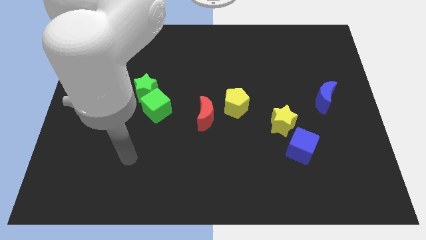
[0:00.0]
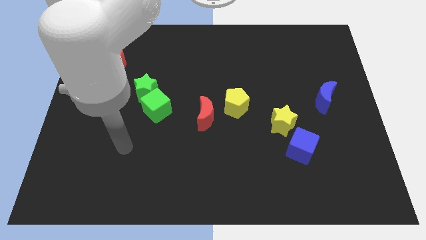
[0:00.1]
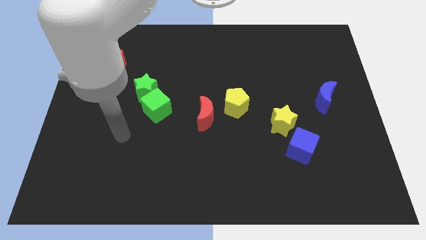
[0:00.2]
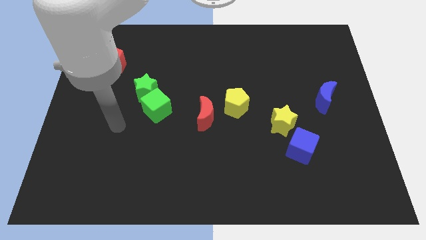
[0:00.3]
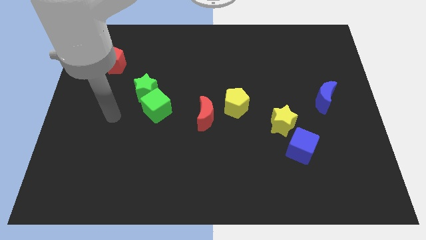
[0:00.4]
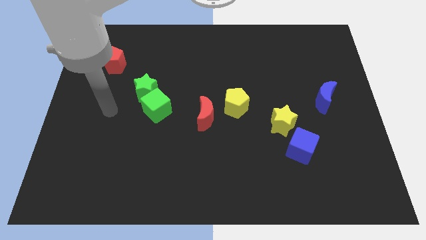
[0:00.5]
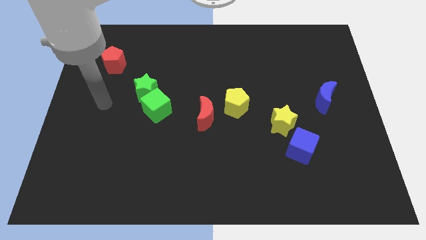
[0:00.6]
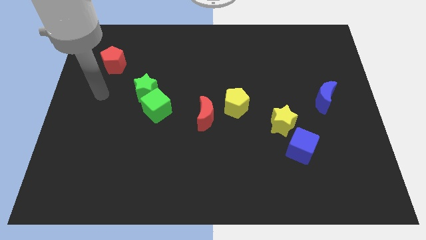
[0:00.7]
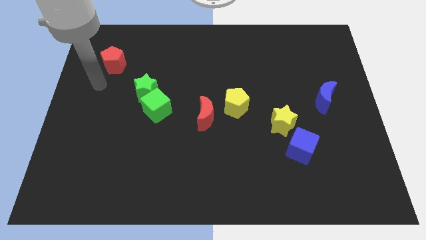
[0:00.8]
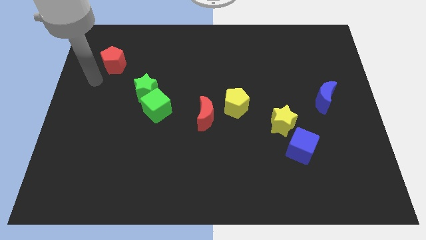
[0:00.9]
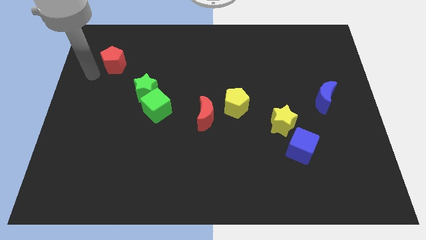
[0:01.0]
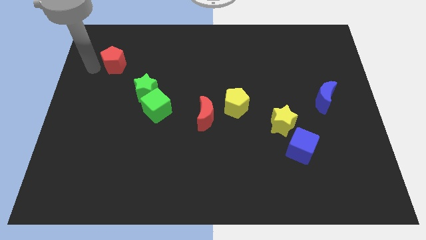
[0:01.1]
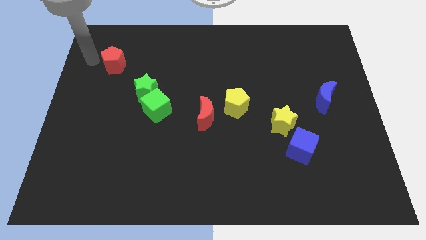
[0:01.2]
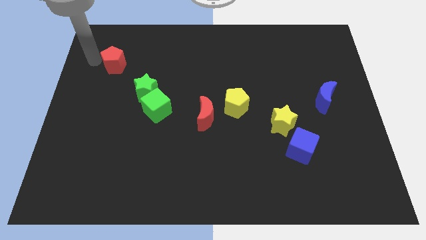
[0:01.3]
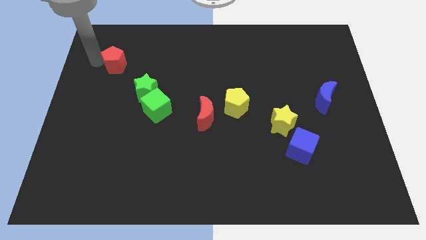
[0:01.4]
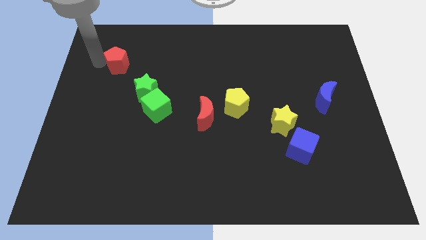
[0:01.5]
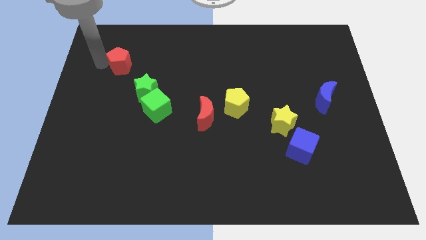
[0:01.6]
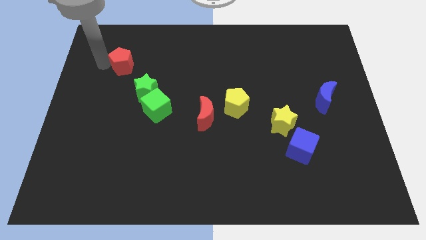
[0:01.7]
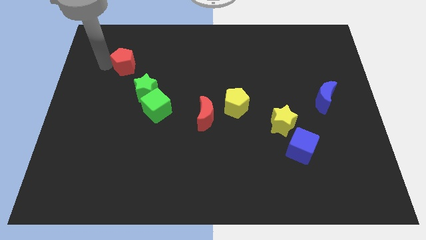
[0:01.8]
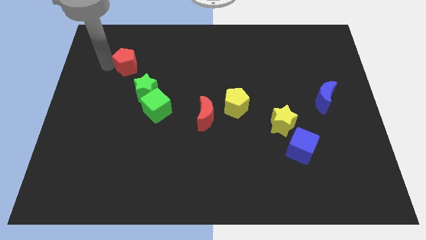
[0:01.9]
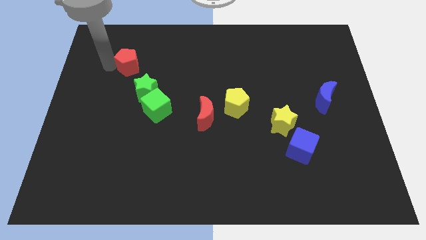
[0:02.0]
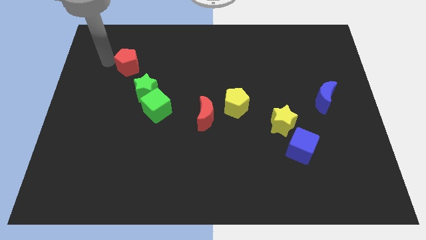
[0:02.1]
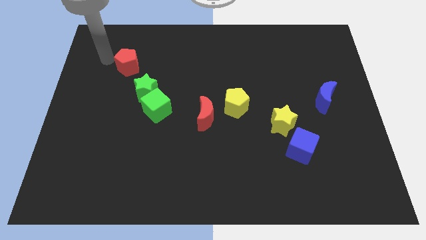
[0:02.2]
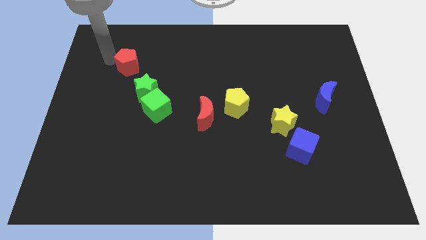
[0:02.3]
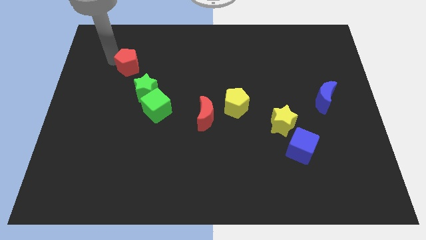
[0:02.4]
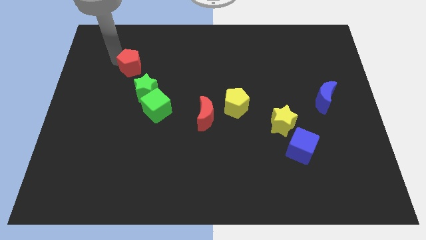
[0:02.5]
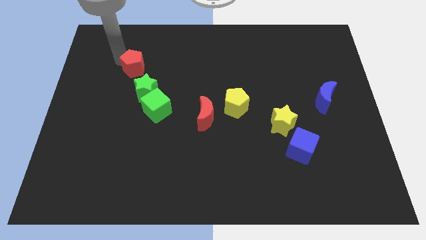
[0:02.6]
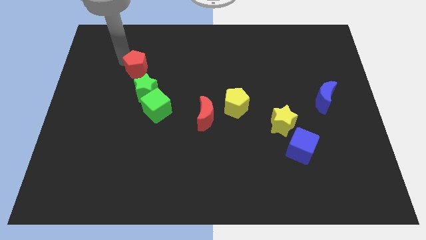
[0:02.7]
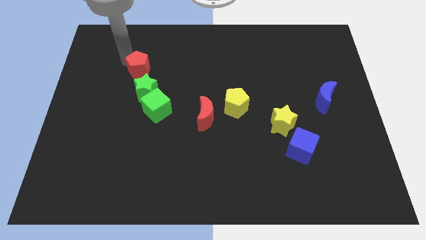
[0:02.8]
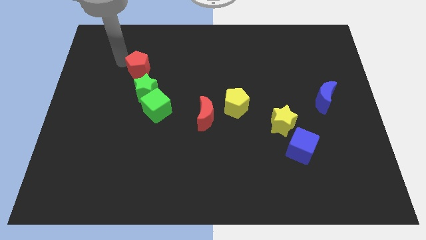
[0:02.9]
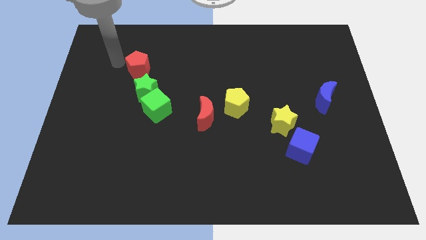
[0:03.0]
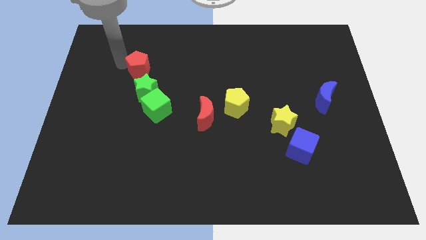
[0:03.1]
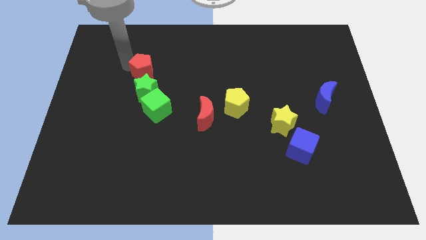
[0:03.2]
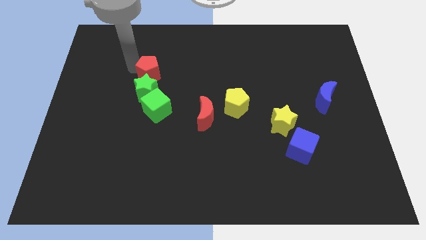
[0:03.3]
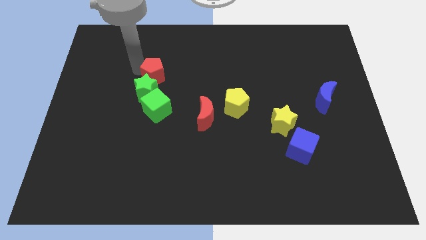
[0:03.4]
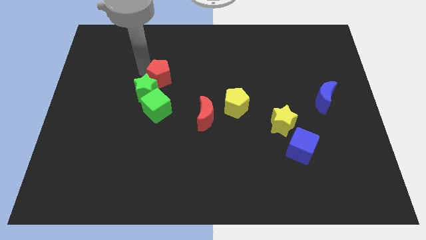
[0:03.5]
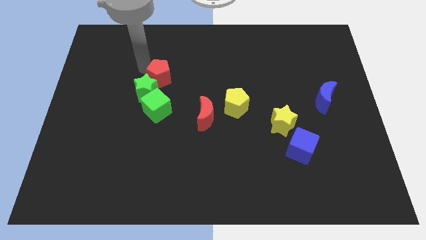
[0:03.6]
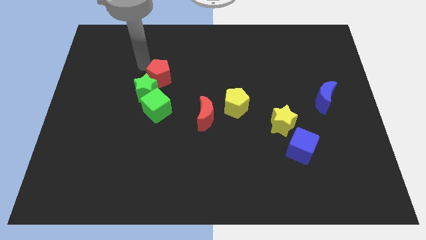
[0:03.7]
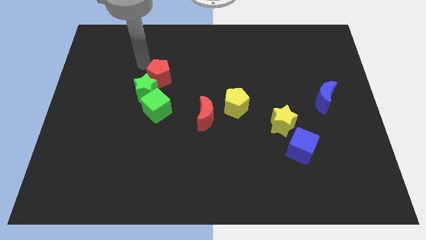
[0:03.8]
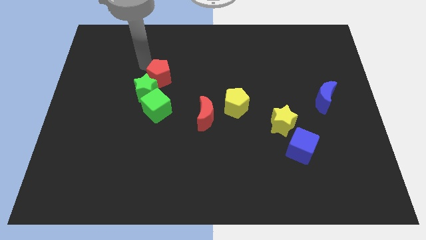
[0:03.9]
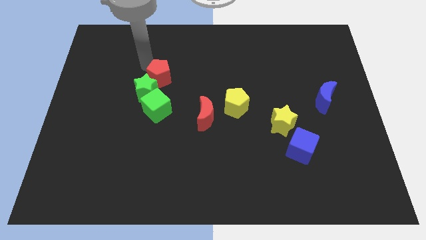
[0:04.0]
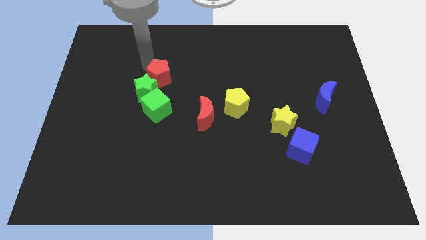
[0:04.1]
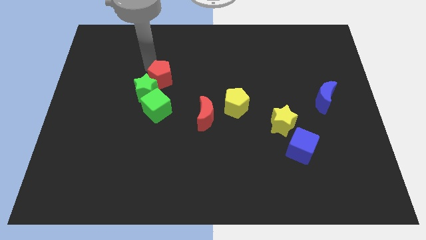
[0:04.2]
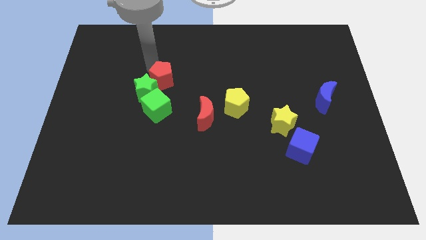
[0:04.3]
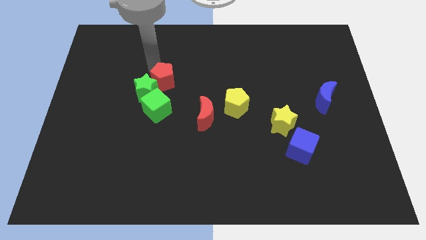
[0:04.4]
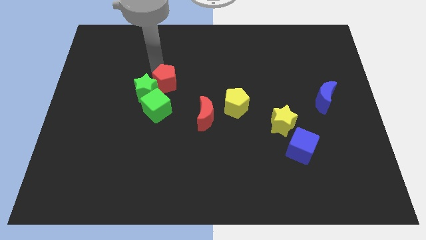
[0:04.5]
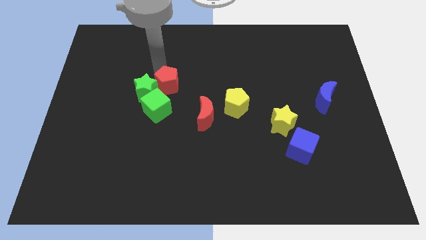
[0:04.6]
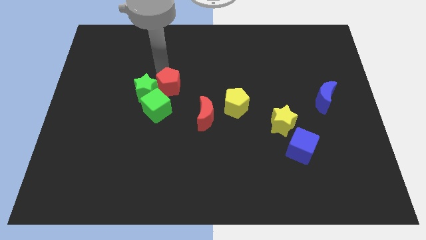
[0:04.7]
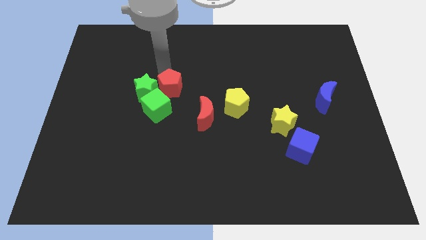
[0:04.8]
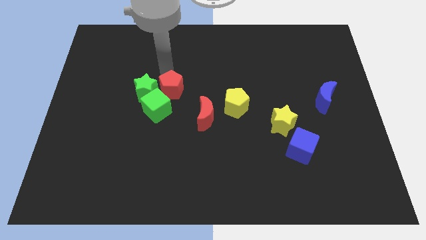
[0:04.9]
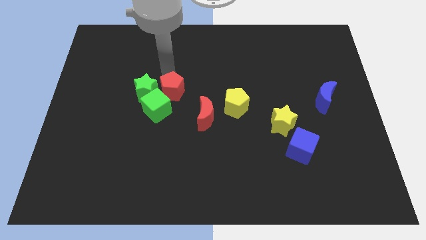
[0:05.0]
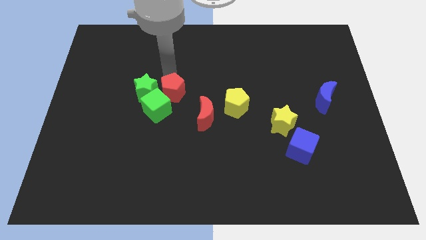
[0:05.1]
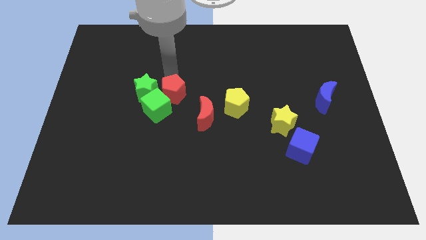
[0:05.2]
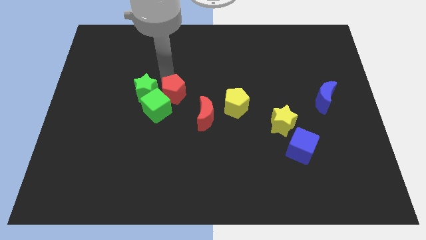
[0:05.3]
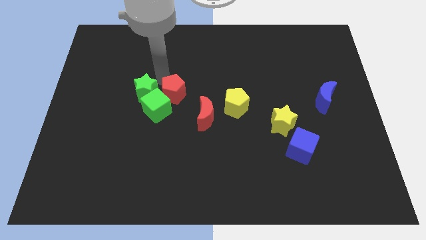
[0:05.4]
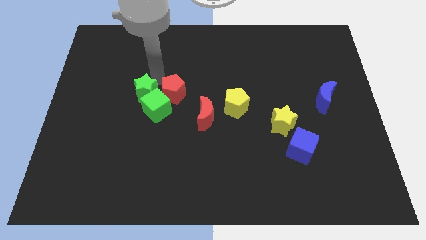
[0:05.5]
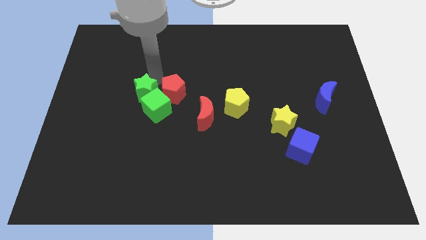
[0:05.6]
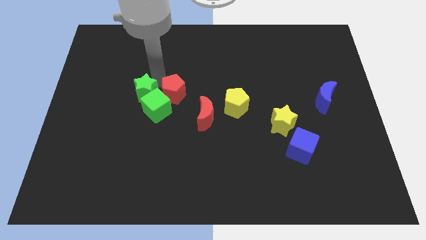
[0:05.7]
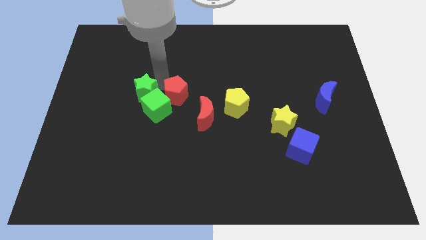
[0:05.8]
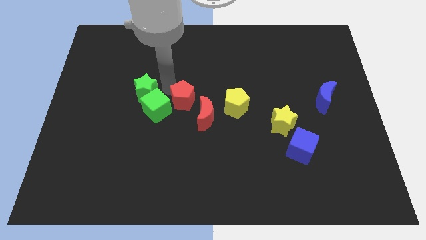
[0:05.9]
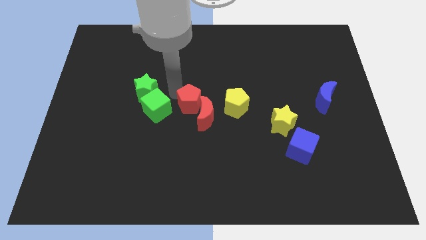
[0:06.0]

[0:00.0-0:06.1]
put the red pentagon next to the red moon

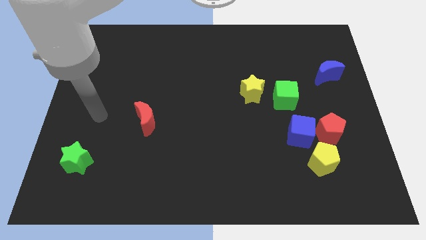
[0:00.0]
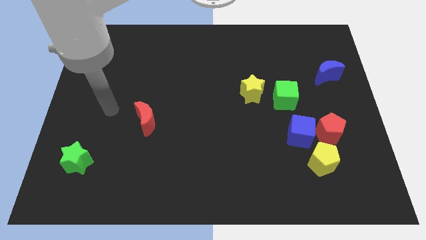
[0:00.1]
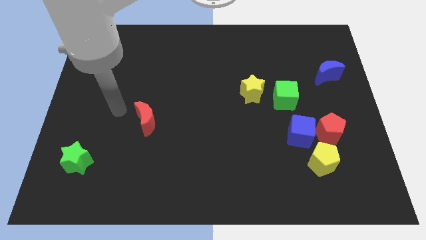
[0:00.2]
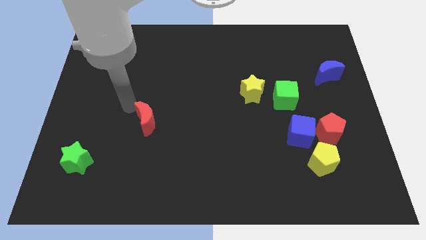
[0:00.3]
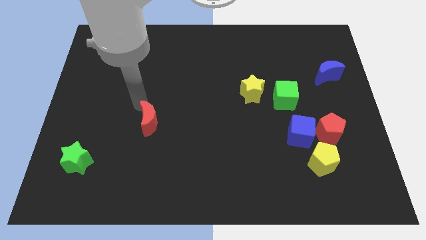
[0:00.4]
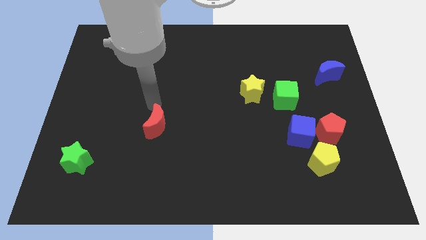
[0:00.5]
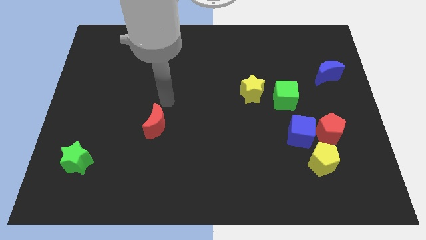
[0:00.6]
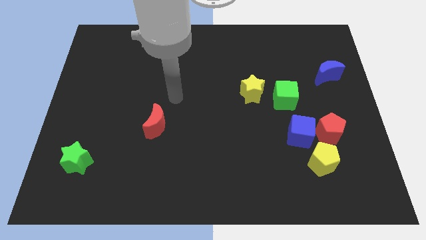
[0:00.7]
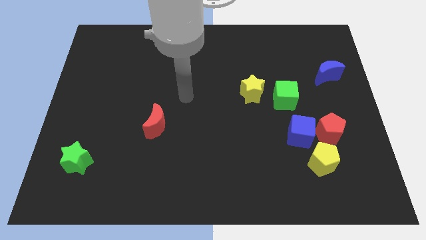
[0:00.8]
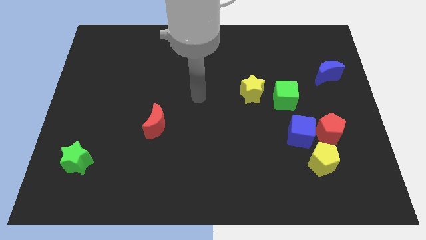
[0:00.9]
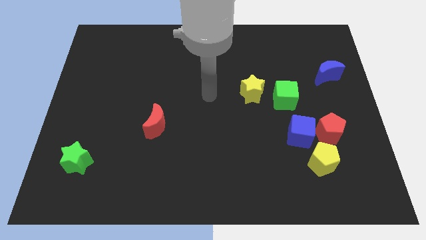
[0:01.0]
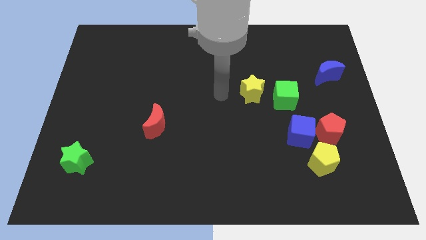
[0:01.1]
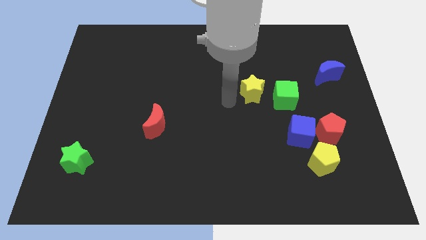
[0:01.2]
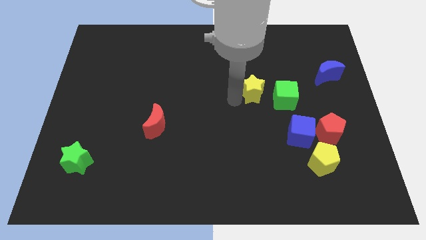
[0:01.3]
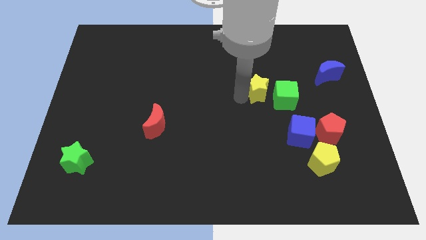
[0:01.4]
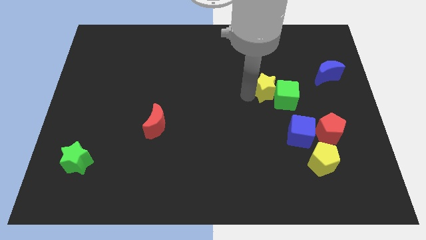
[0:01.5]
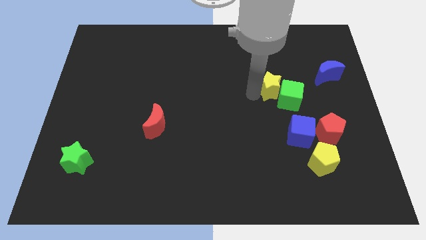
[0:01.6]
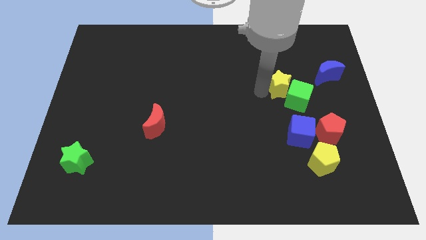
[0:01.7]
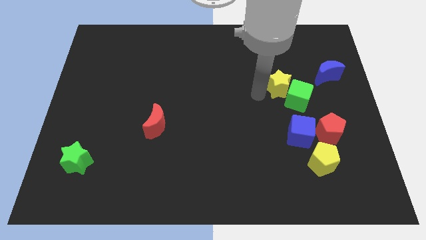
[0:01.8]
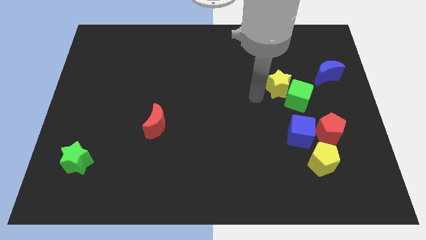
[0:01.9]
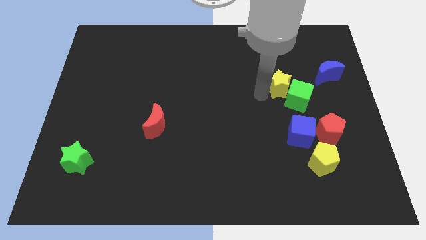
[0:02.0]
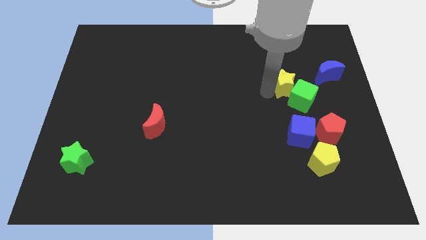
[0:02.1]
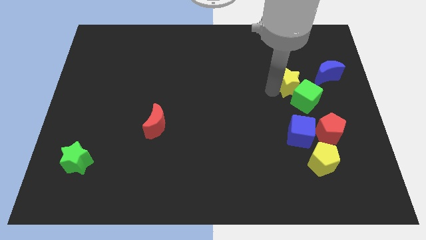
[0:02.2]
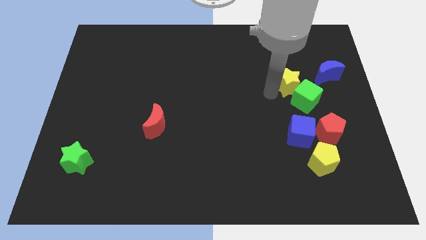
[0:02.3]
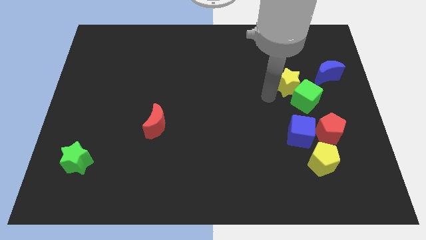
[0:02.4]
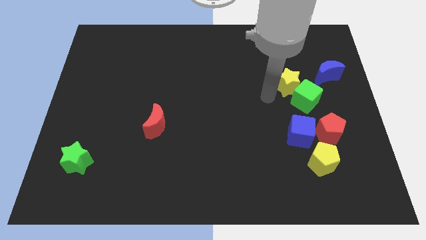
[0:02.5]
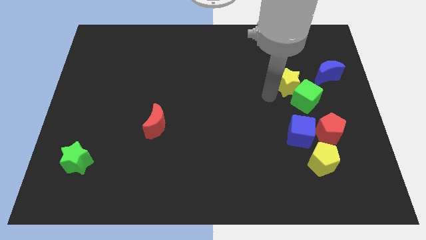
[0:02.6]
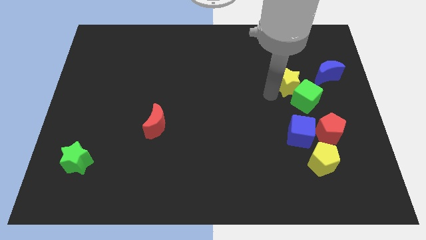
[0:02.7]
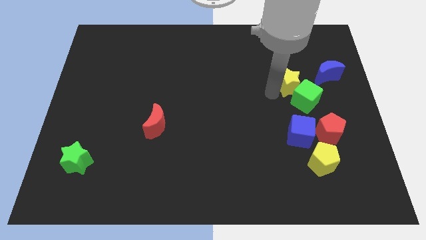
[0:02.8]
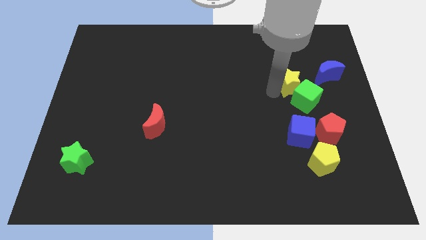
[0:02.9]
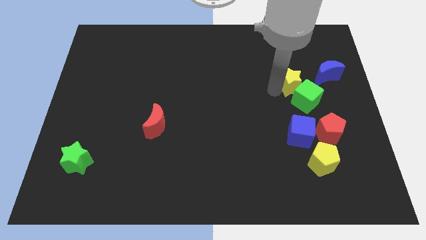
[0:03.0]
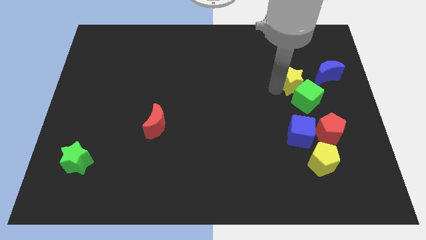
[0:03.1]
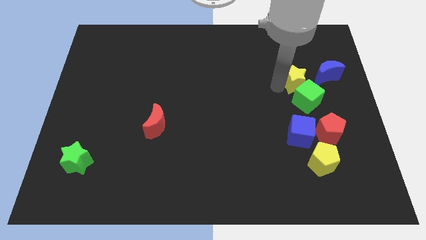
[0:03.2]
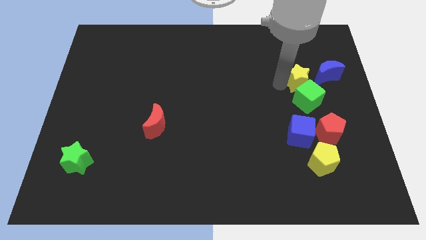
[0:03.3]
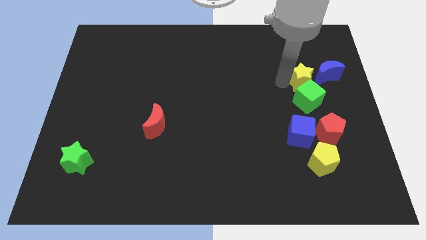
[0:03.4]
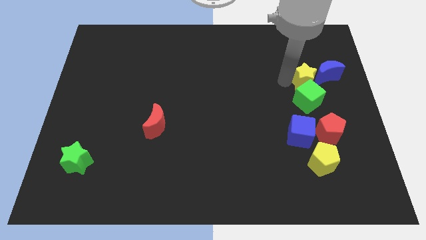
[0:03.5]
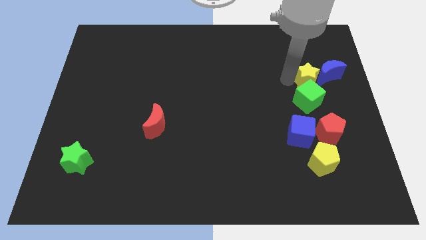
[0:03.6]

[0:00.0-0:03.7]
push the yellow star towards the blue moon
